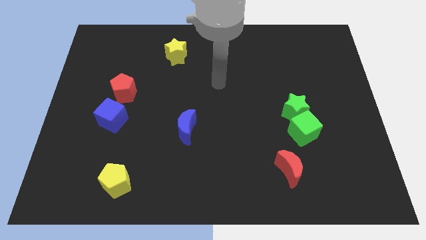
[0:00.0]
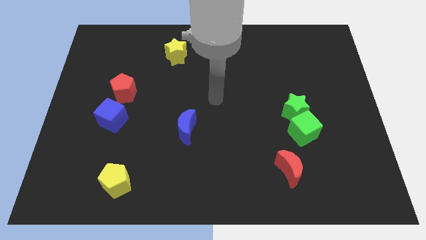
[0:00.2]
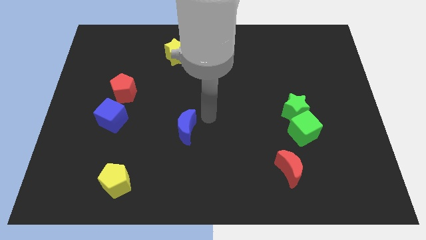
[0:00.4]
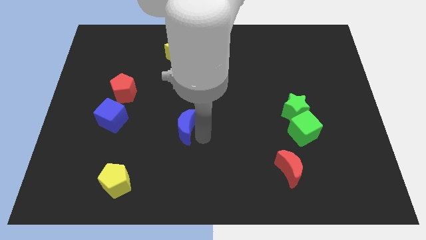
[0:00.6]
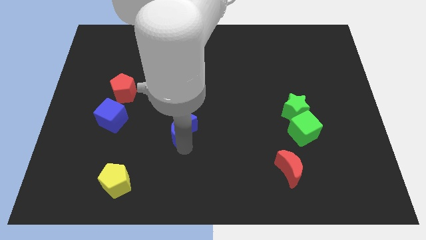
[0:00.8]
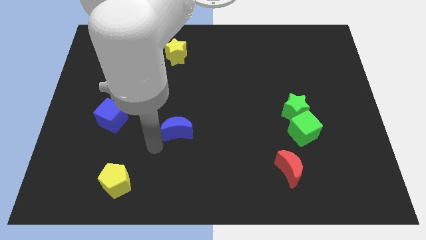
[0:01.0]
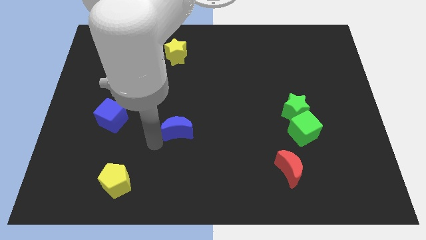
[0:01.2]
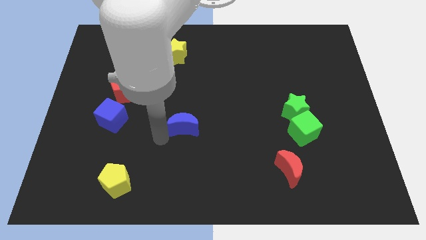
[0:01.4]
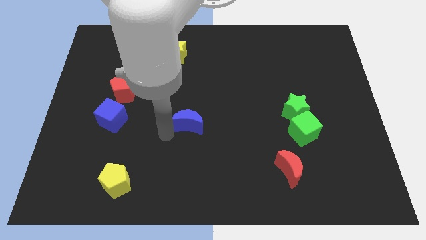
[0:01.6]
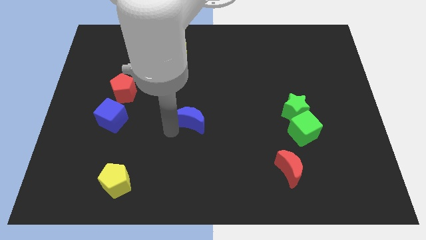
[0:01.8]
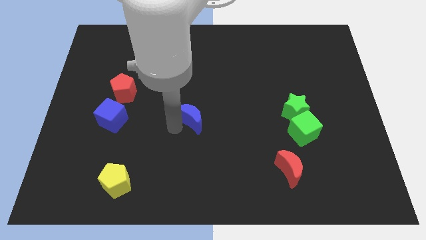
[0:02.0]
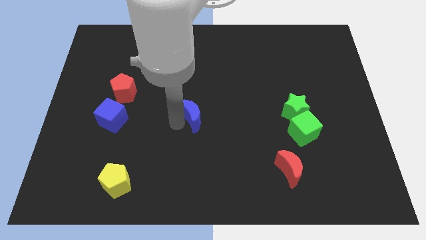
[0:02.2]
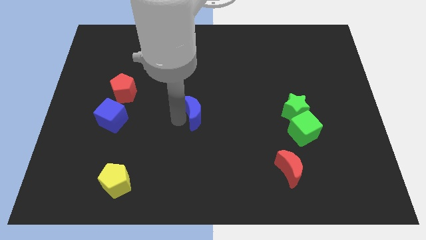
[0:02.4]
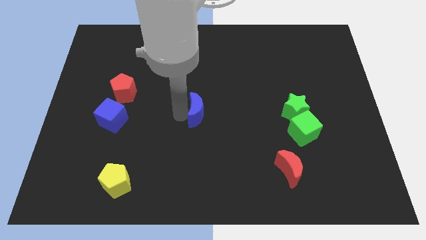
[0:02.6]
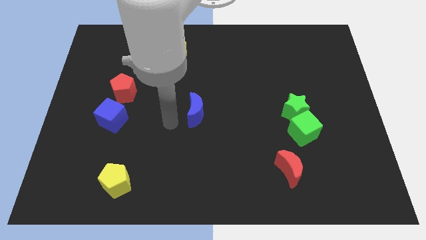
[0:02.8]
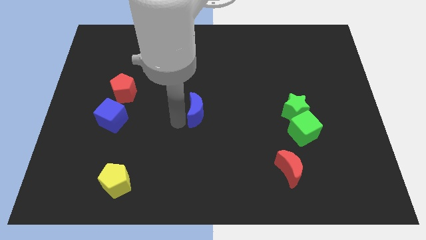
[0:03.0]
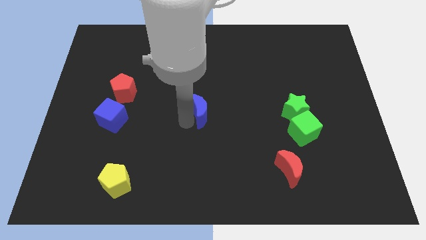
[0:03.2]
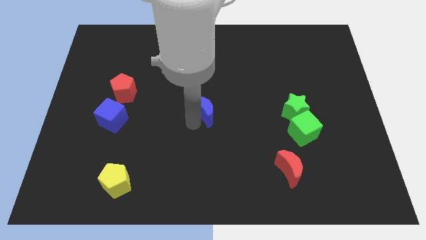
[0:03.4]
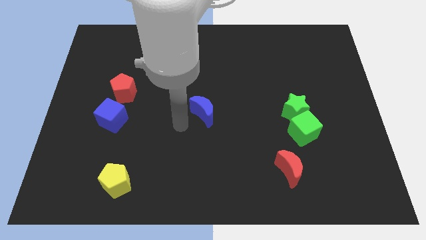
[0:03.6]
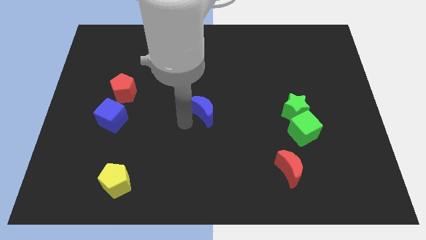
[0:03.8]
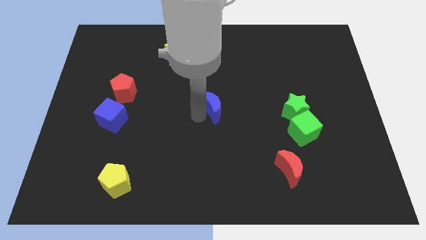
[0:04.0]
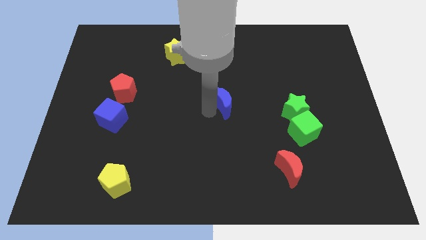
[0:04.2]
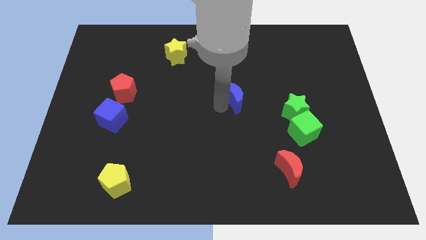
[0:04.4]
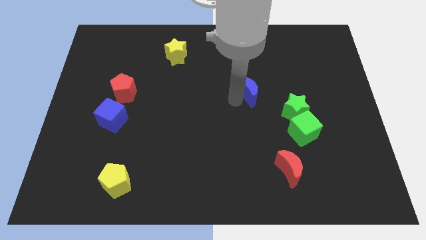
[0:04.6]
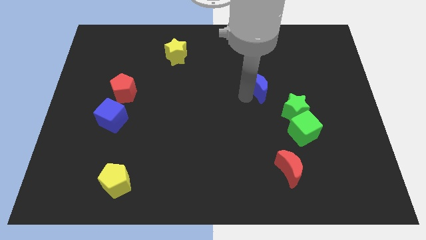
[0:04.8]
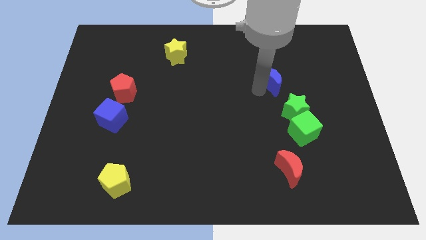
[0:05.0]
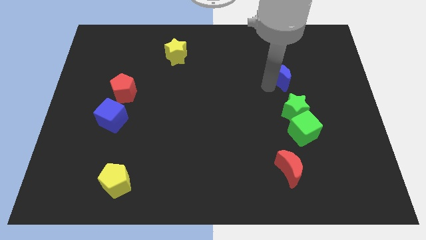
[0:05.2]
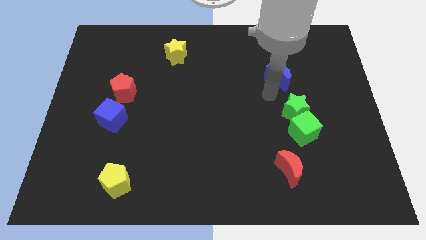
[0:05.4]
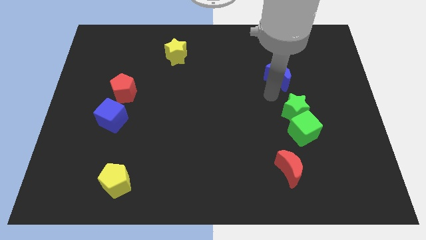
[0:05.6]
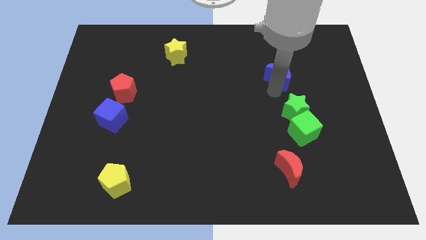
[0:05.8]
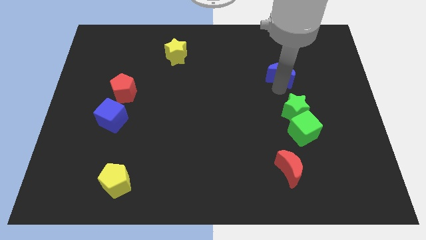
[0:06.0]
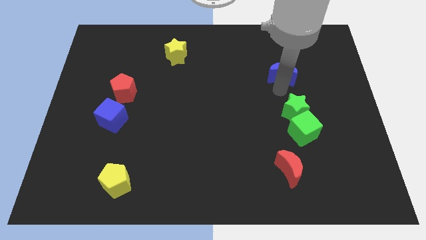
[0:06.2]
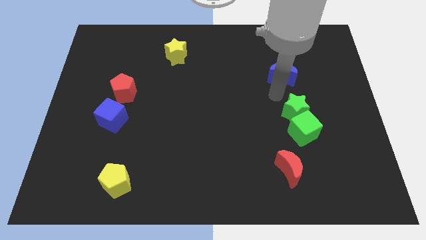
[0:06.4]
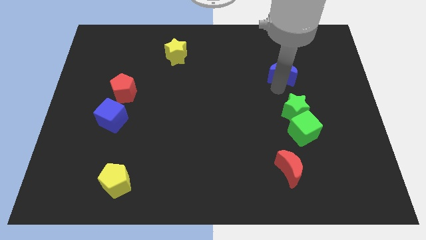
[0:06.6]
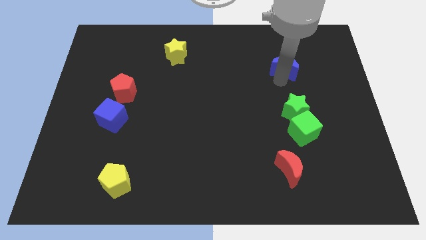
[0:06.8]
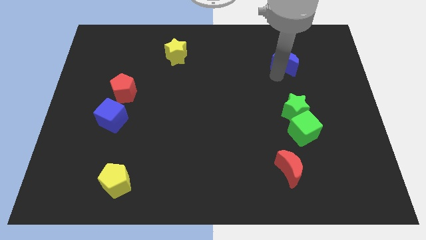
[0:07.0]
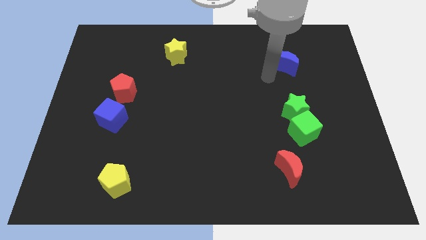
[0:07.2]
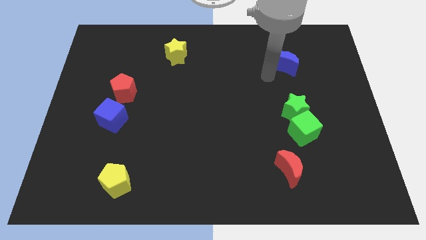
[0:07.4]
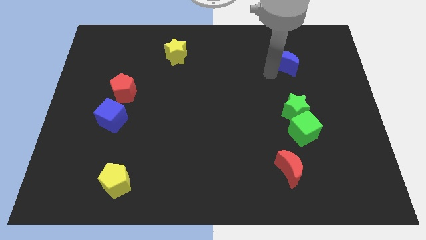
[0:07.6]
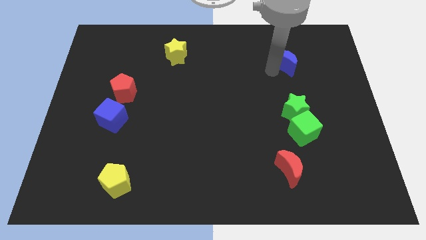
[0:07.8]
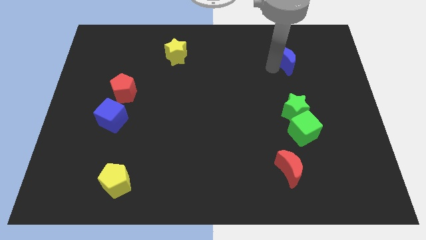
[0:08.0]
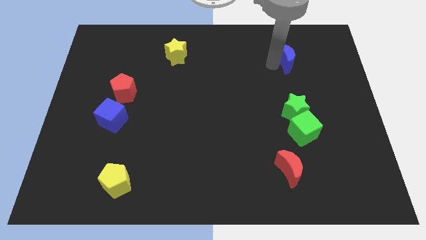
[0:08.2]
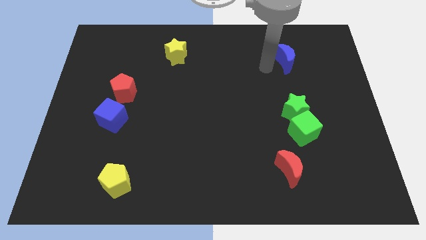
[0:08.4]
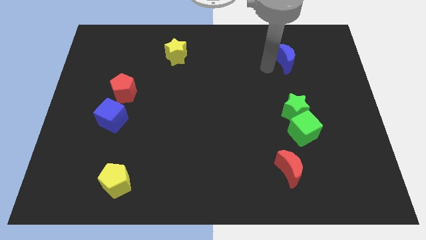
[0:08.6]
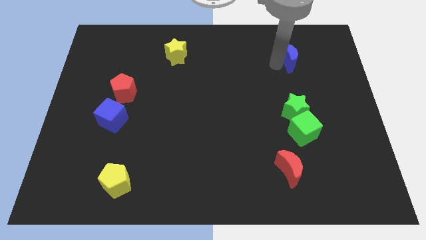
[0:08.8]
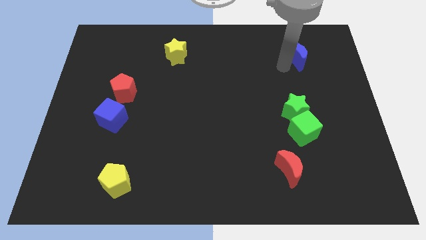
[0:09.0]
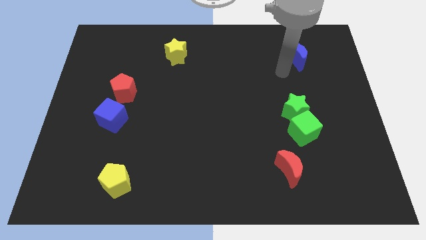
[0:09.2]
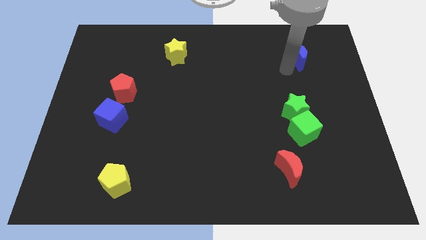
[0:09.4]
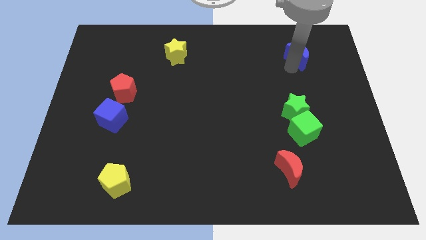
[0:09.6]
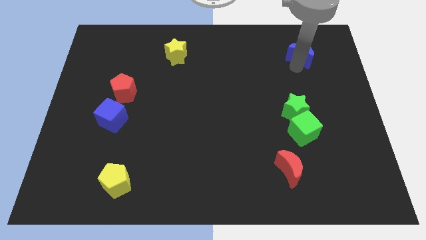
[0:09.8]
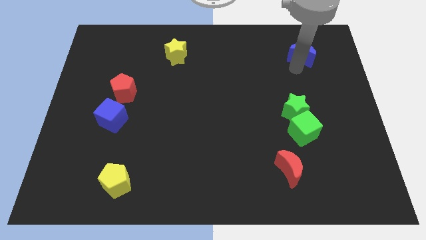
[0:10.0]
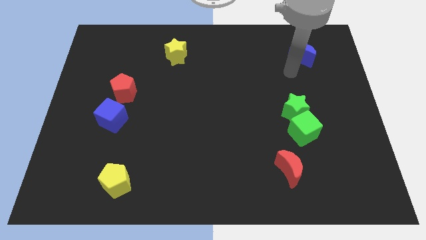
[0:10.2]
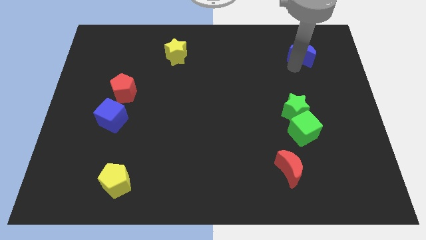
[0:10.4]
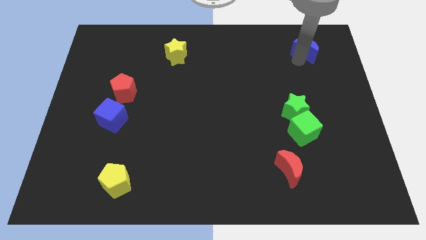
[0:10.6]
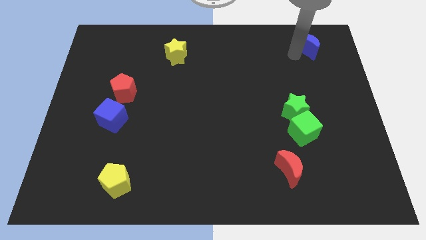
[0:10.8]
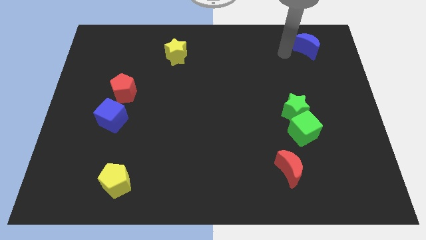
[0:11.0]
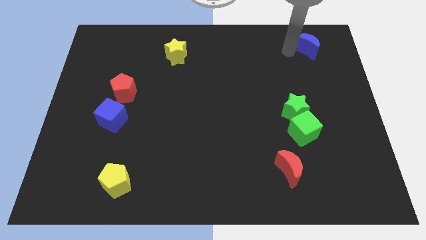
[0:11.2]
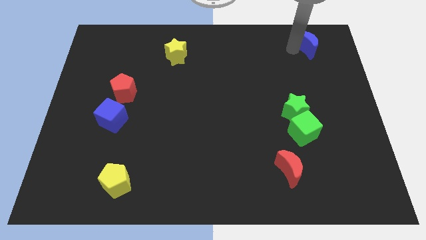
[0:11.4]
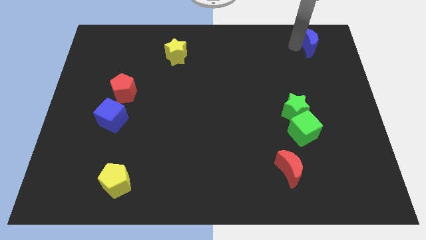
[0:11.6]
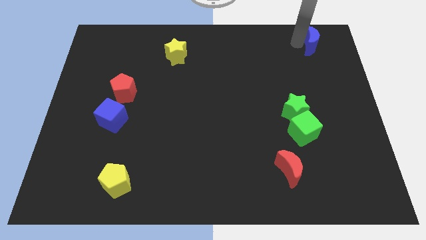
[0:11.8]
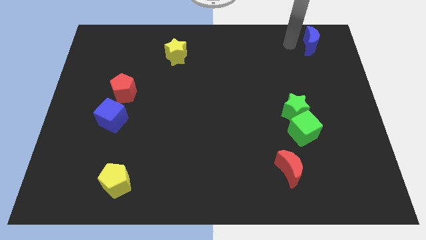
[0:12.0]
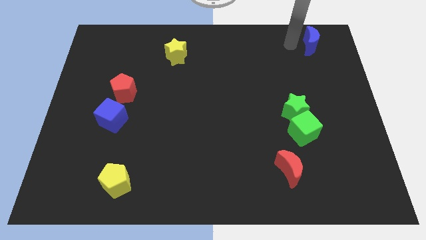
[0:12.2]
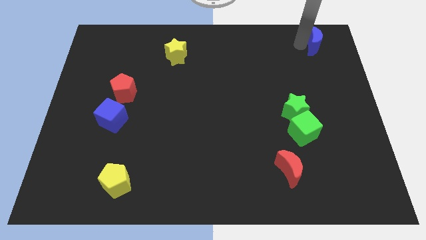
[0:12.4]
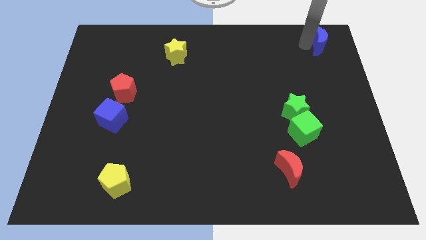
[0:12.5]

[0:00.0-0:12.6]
slide the blue moon to the top right

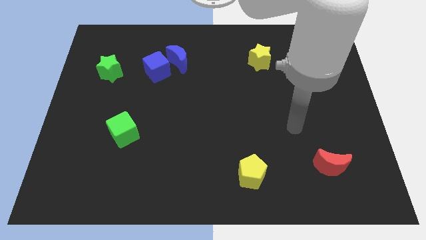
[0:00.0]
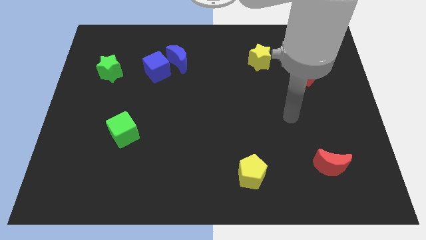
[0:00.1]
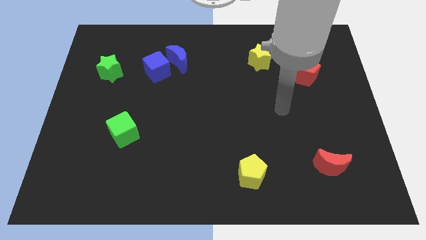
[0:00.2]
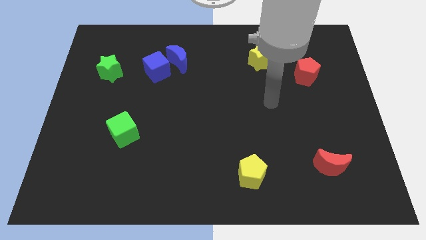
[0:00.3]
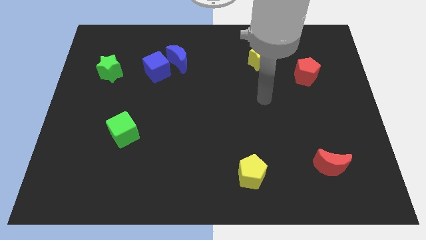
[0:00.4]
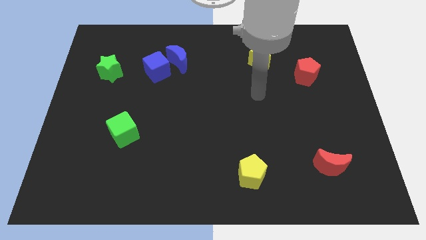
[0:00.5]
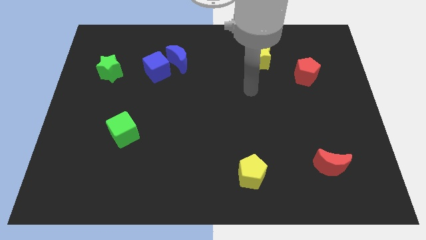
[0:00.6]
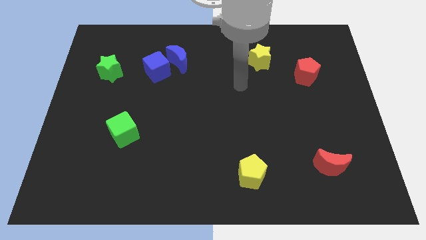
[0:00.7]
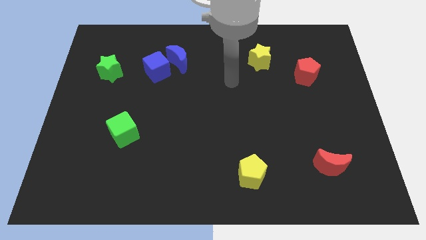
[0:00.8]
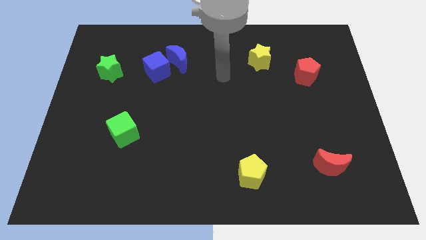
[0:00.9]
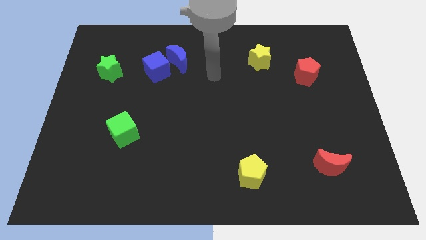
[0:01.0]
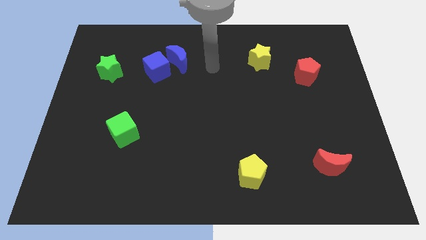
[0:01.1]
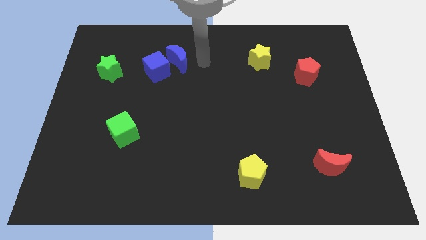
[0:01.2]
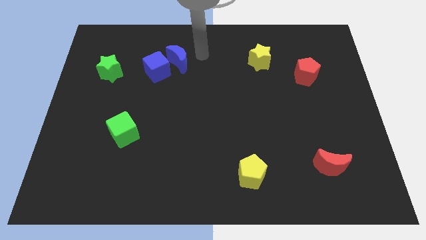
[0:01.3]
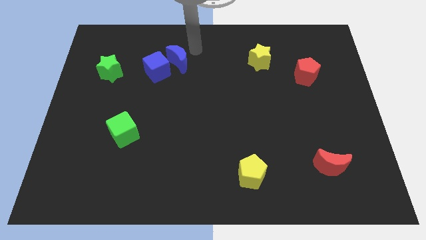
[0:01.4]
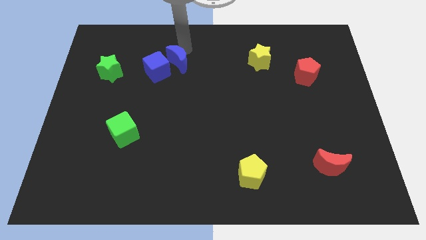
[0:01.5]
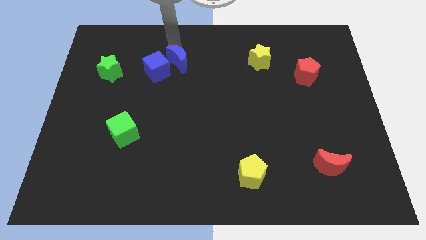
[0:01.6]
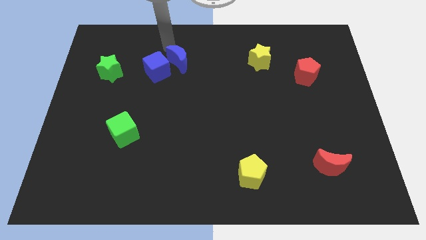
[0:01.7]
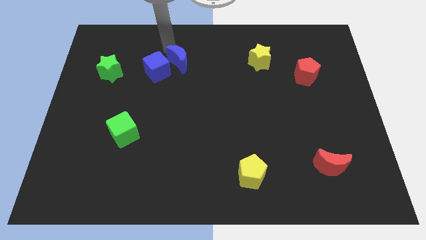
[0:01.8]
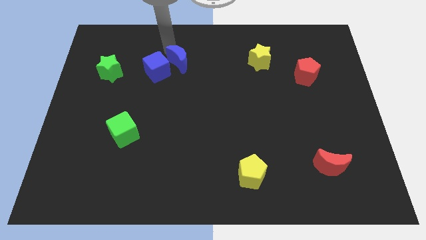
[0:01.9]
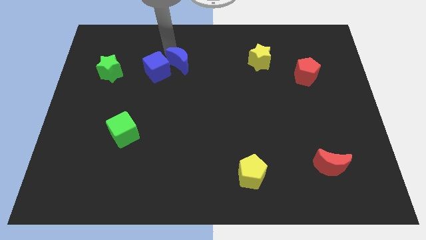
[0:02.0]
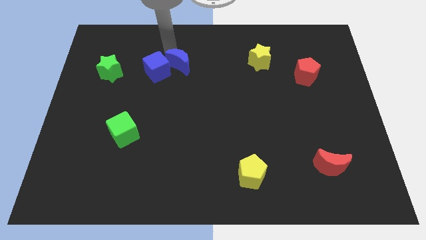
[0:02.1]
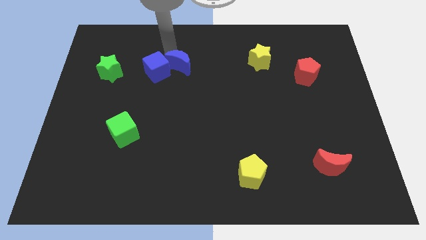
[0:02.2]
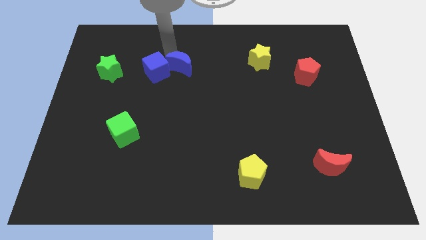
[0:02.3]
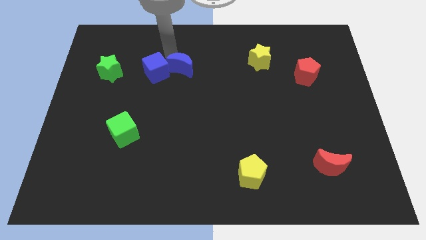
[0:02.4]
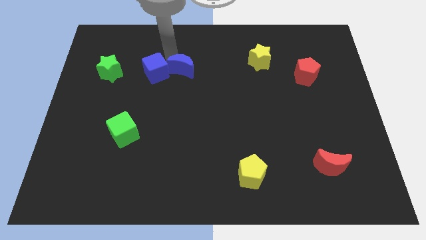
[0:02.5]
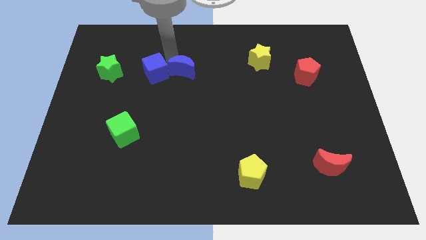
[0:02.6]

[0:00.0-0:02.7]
push the blue moon to the center of the board
